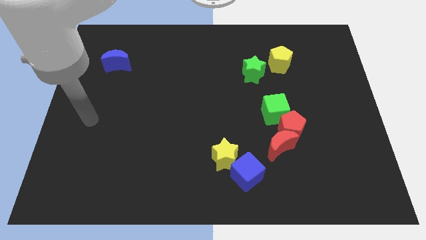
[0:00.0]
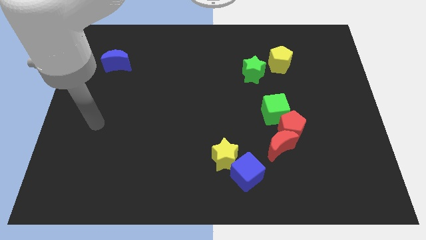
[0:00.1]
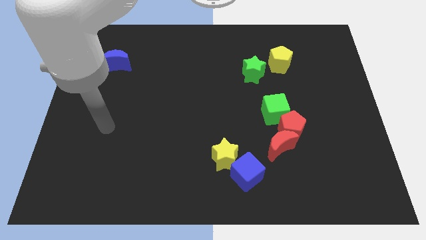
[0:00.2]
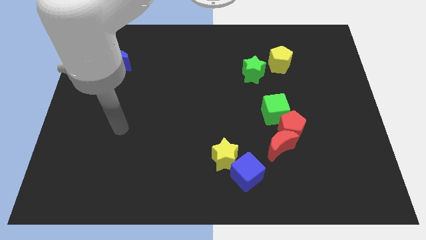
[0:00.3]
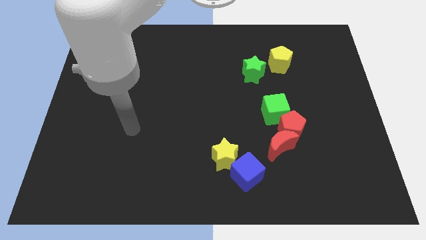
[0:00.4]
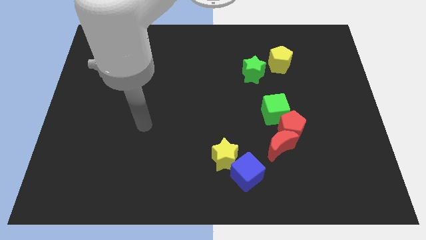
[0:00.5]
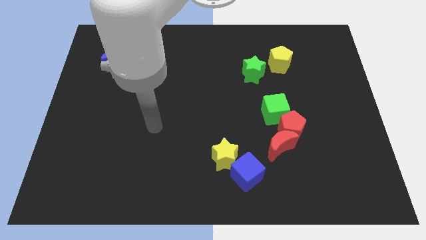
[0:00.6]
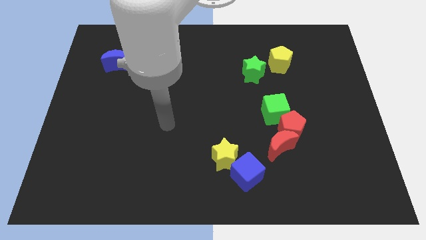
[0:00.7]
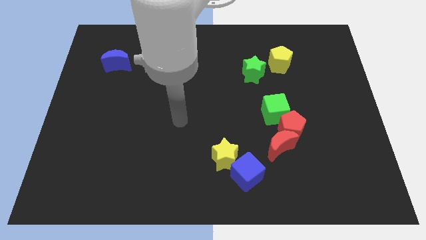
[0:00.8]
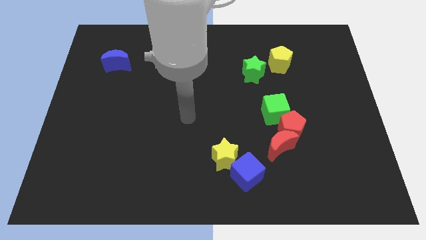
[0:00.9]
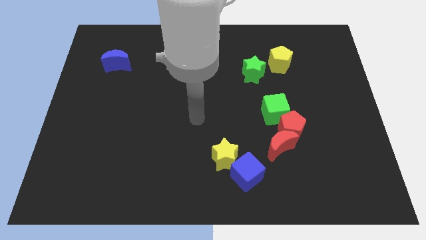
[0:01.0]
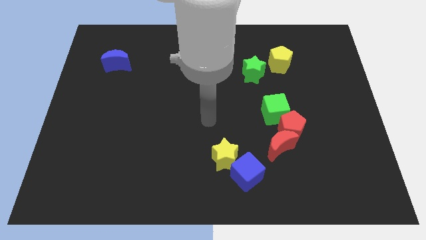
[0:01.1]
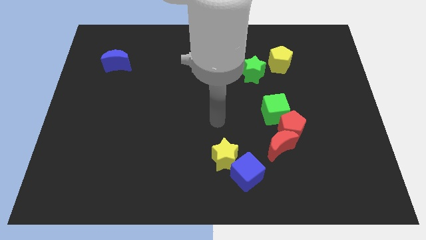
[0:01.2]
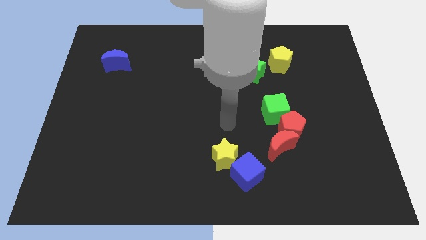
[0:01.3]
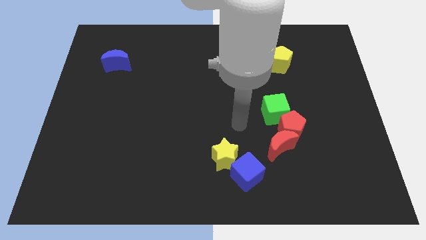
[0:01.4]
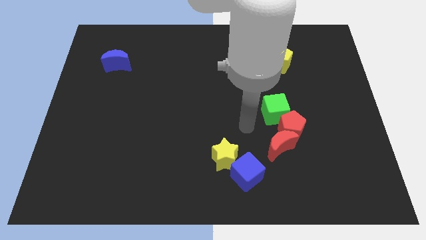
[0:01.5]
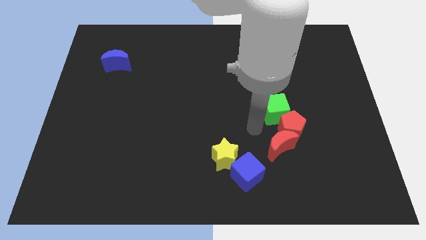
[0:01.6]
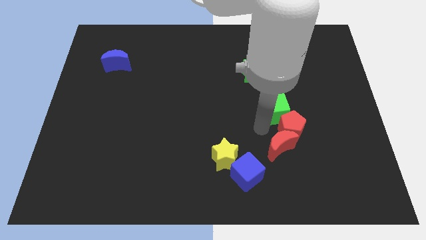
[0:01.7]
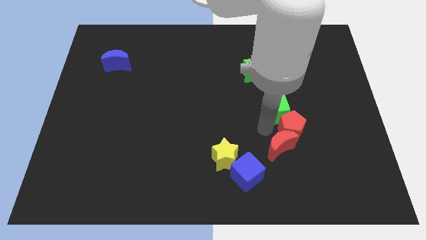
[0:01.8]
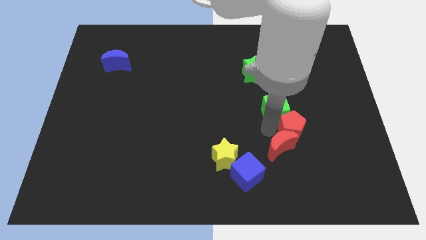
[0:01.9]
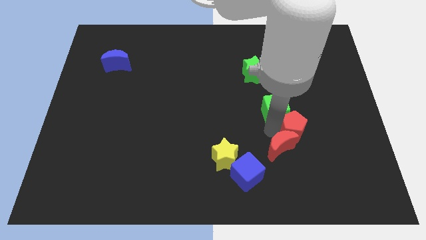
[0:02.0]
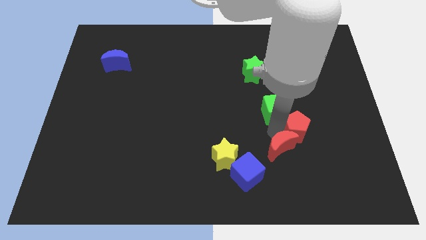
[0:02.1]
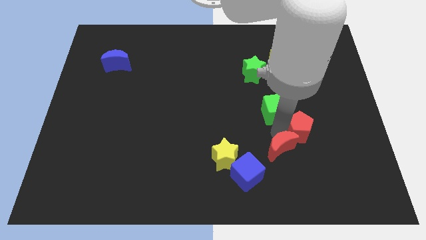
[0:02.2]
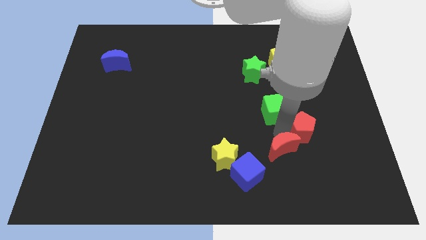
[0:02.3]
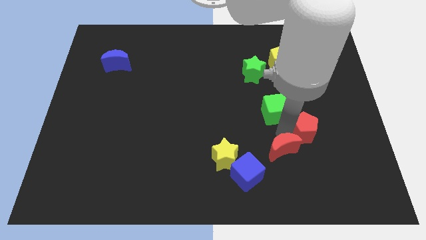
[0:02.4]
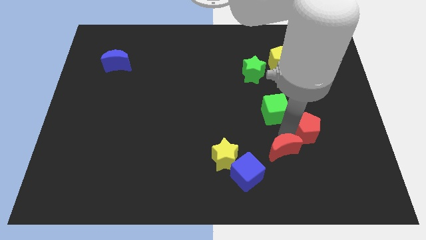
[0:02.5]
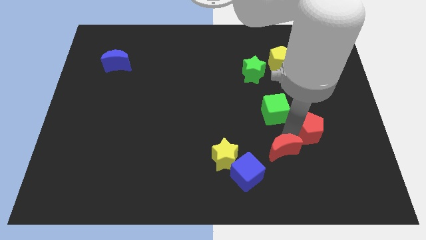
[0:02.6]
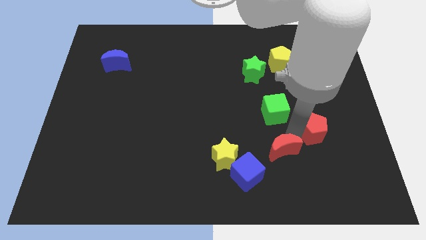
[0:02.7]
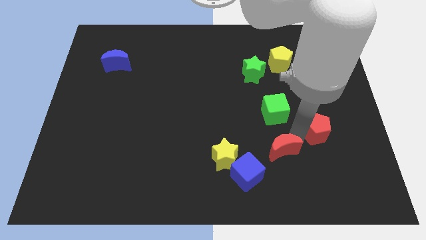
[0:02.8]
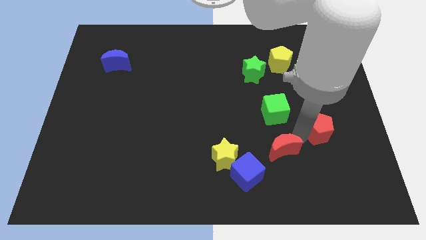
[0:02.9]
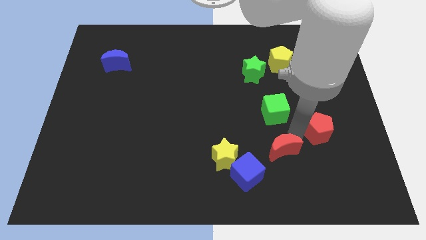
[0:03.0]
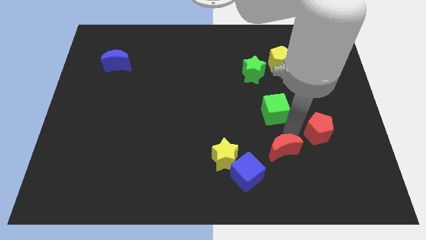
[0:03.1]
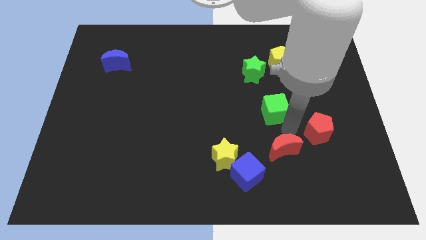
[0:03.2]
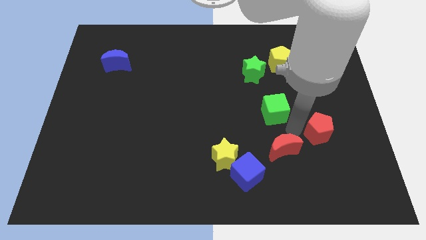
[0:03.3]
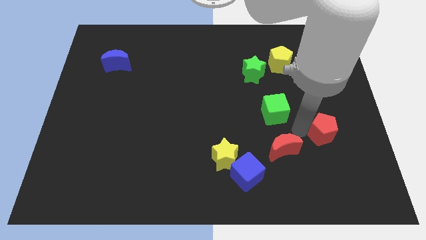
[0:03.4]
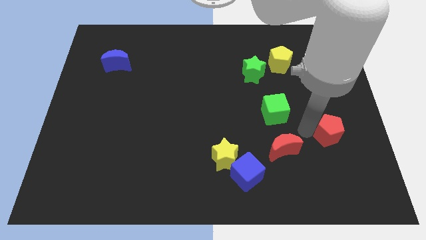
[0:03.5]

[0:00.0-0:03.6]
move the red pentagon away from the red moon and green cube

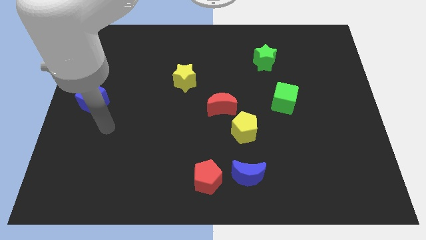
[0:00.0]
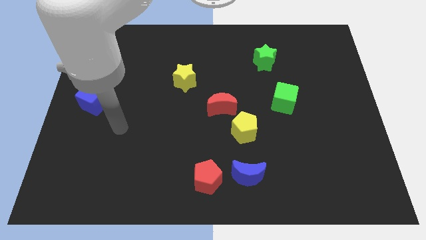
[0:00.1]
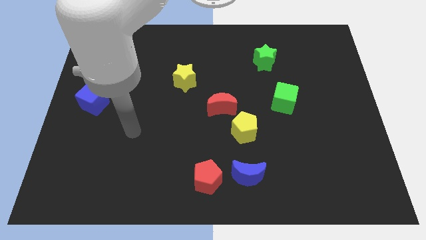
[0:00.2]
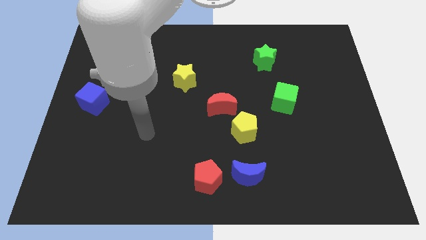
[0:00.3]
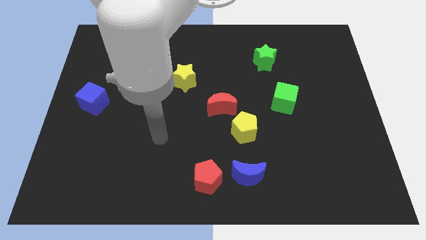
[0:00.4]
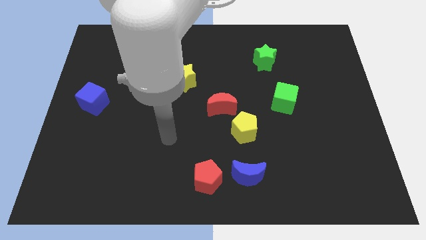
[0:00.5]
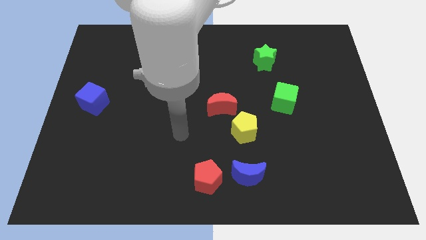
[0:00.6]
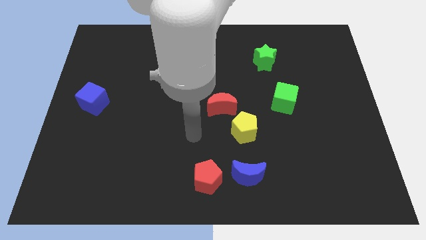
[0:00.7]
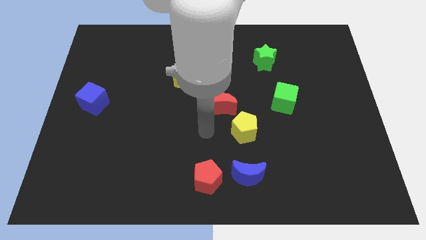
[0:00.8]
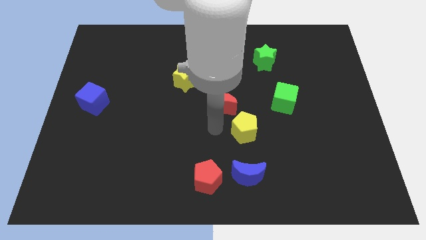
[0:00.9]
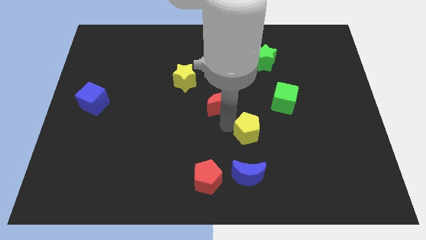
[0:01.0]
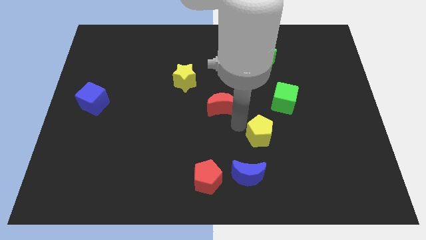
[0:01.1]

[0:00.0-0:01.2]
pull the red moon apart from the yellow pentagon

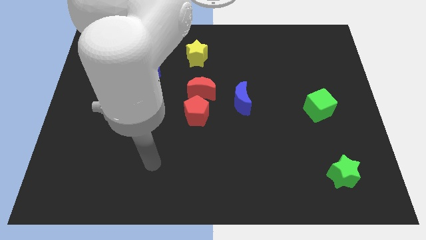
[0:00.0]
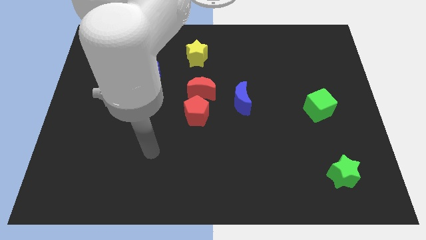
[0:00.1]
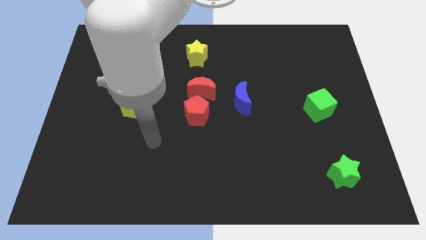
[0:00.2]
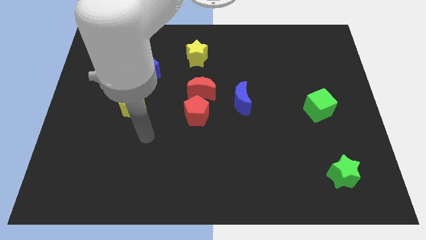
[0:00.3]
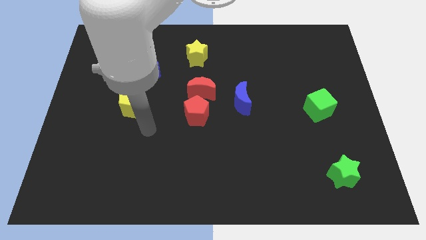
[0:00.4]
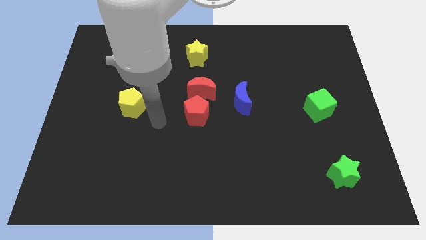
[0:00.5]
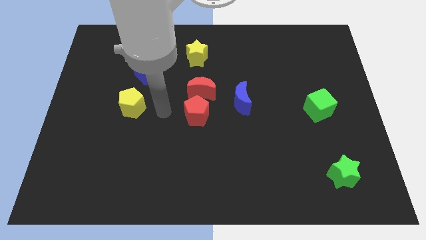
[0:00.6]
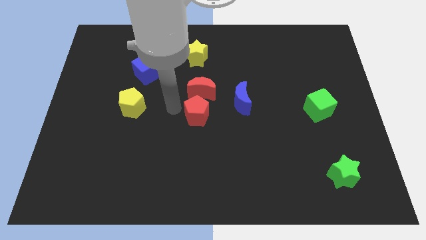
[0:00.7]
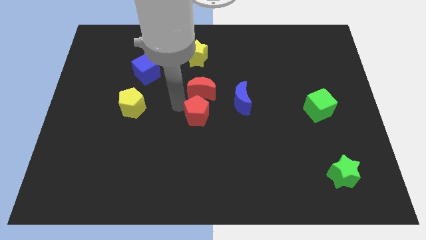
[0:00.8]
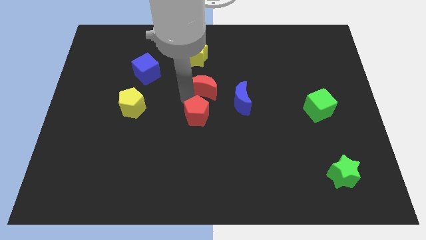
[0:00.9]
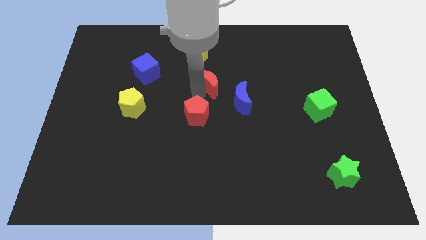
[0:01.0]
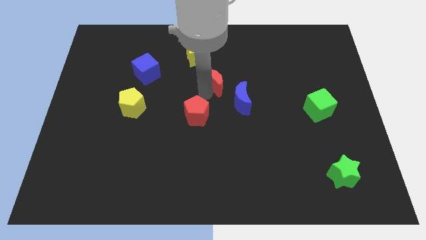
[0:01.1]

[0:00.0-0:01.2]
move the red pentagon away from the red moon

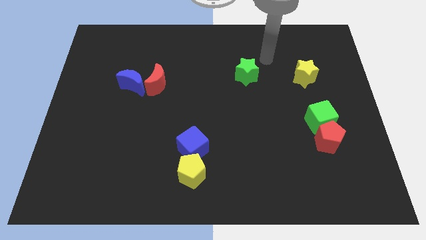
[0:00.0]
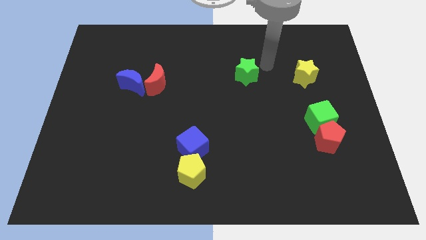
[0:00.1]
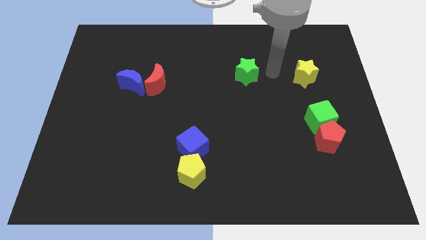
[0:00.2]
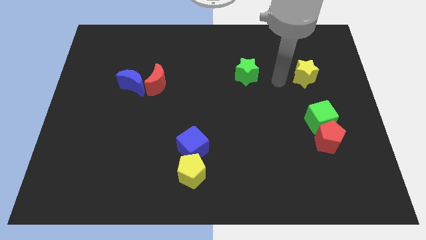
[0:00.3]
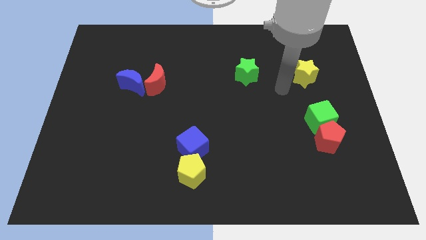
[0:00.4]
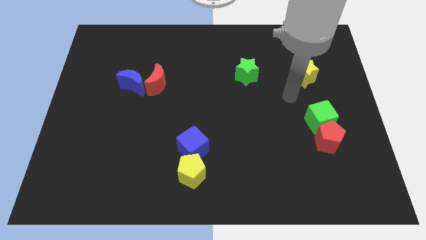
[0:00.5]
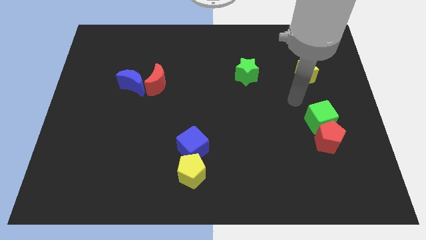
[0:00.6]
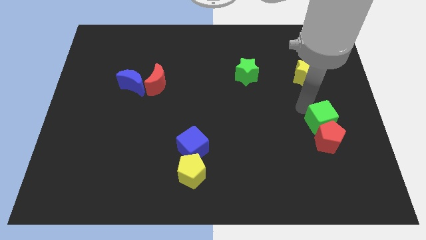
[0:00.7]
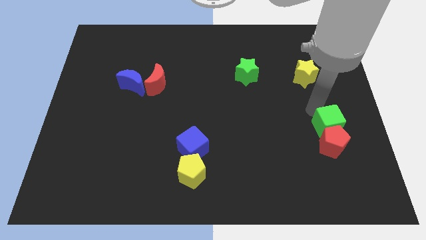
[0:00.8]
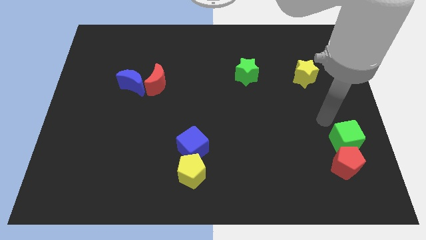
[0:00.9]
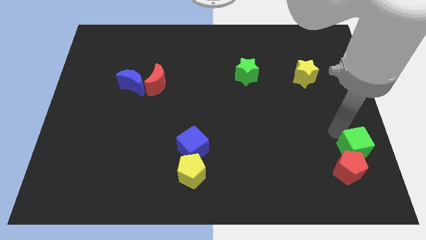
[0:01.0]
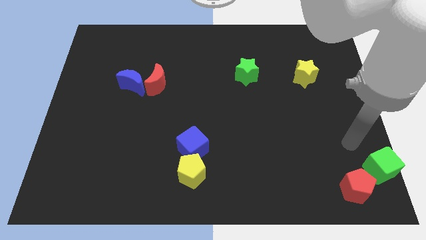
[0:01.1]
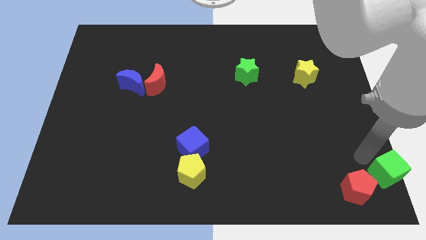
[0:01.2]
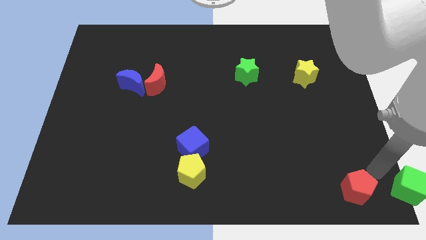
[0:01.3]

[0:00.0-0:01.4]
separate the red pentagon from the green cube

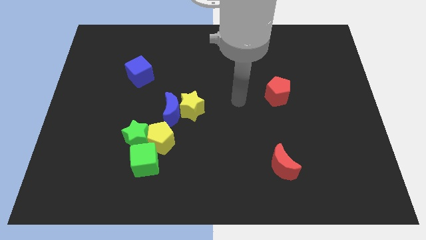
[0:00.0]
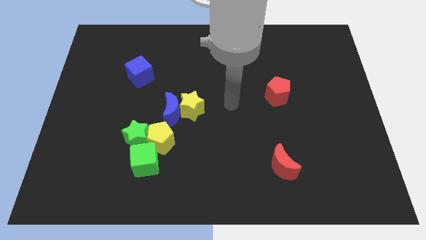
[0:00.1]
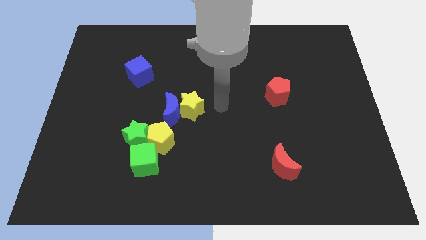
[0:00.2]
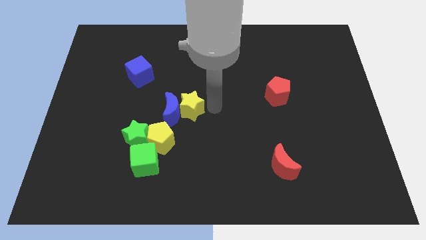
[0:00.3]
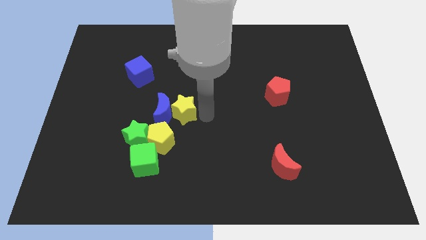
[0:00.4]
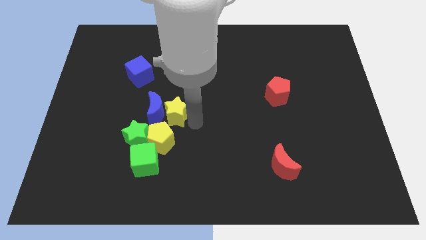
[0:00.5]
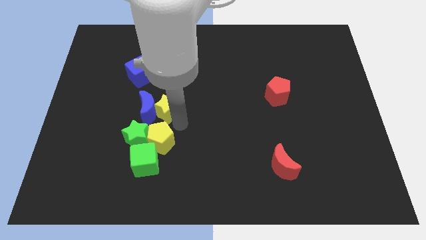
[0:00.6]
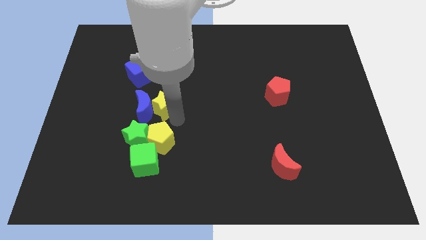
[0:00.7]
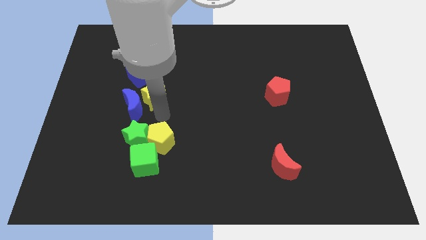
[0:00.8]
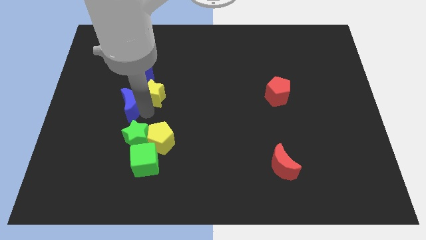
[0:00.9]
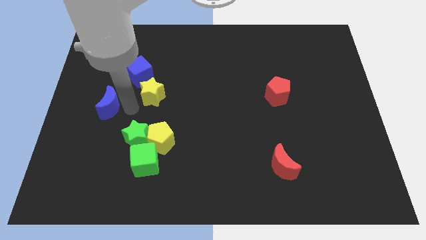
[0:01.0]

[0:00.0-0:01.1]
pull the yellow star apart from the blue moon

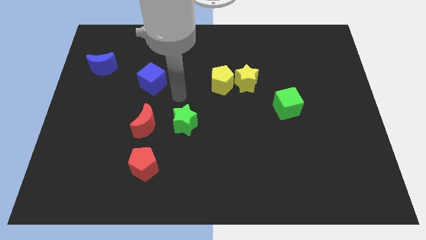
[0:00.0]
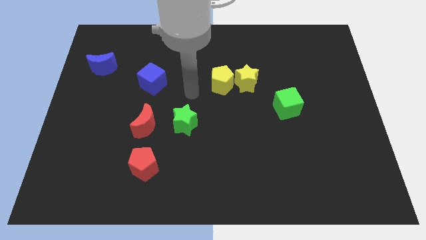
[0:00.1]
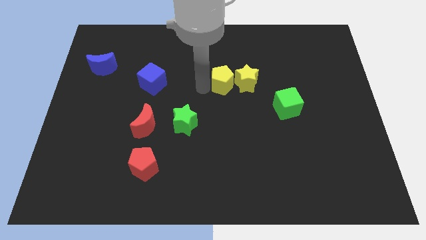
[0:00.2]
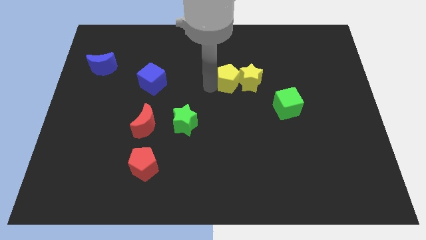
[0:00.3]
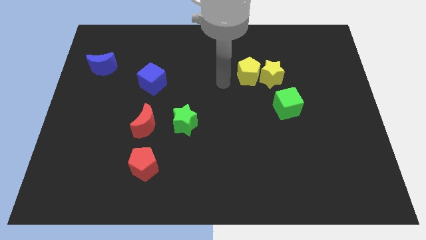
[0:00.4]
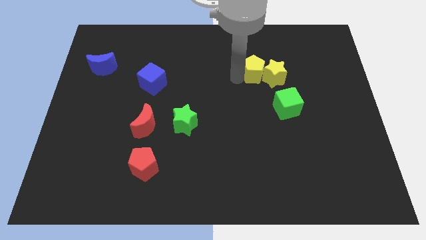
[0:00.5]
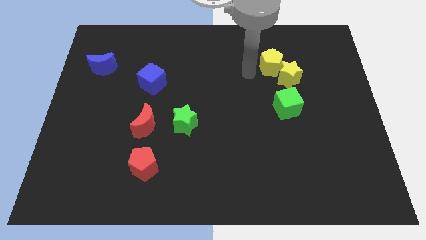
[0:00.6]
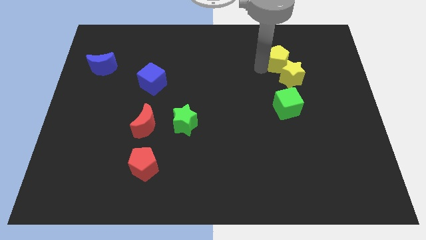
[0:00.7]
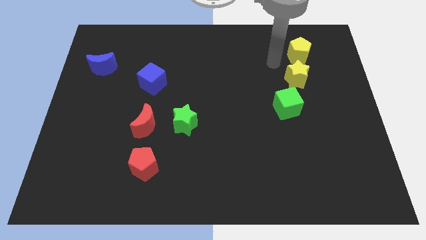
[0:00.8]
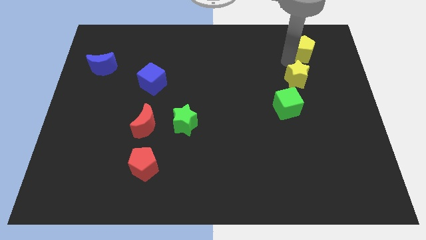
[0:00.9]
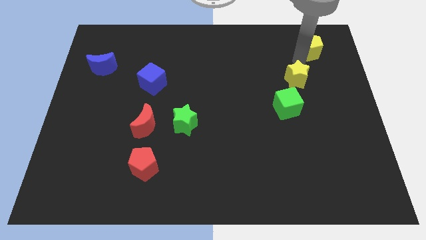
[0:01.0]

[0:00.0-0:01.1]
move the yellow star away from the yellow pentagon
